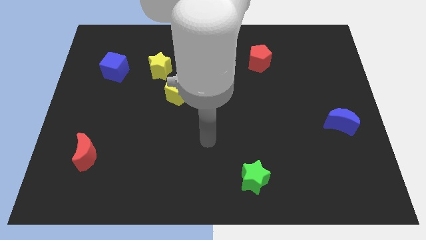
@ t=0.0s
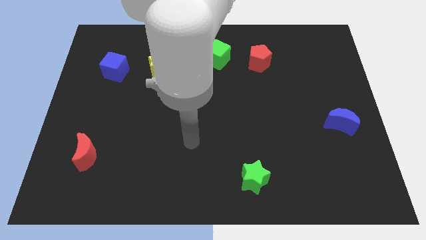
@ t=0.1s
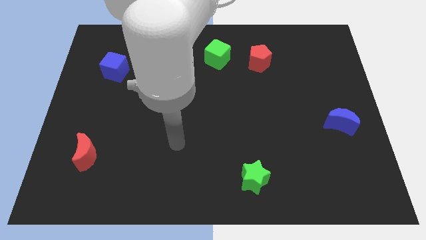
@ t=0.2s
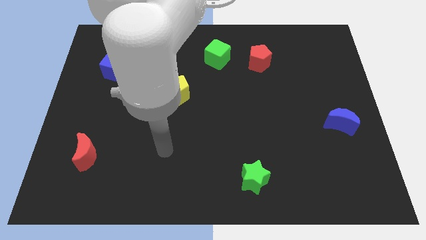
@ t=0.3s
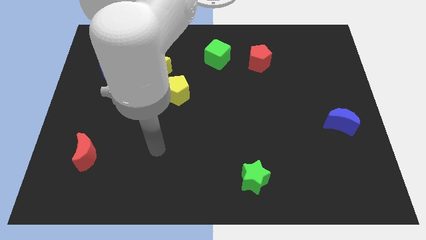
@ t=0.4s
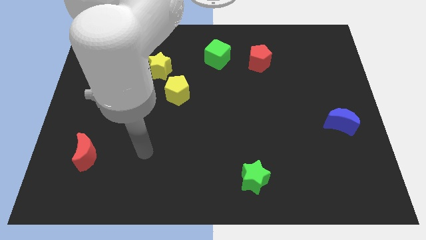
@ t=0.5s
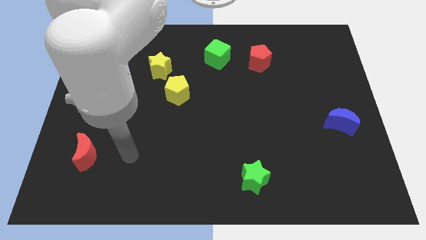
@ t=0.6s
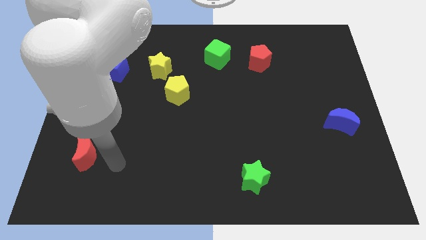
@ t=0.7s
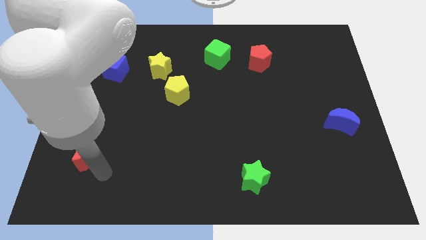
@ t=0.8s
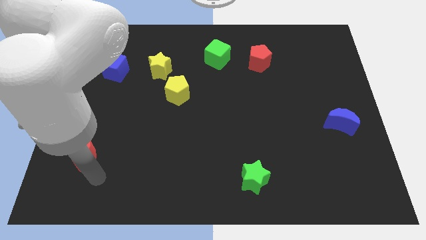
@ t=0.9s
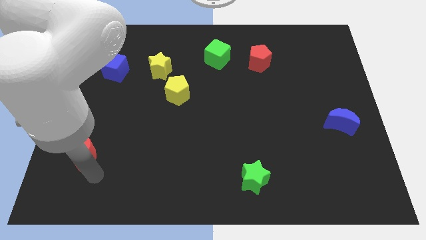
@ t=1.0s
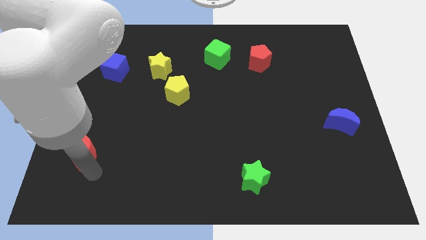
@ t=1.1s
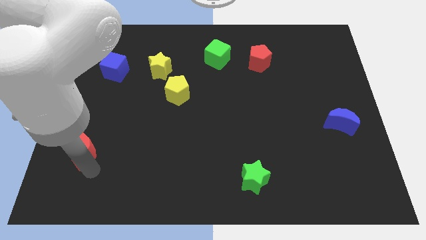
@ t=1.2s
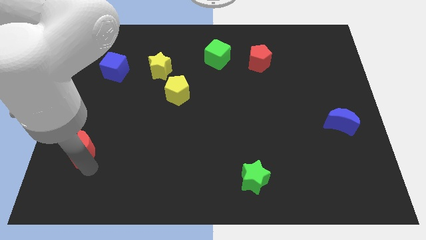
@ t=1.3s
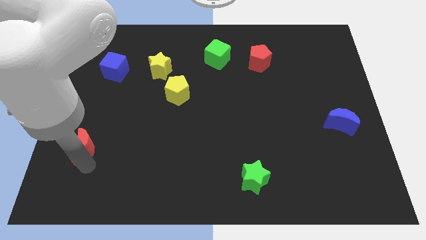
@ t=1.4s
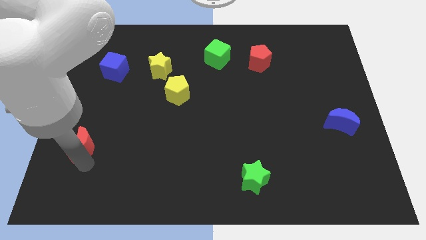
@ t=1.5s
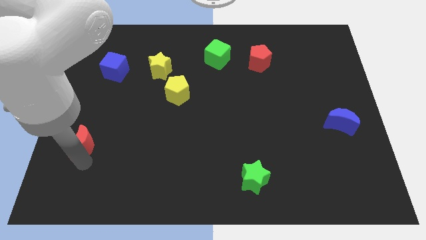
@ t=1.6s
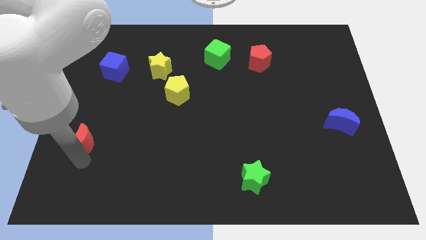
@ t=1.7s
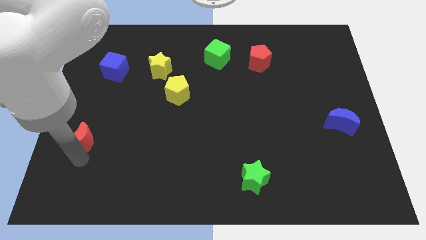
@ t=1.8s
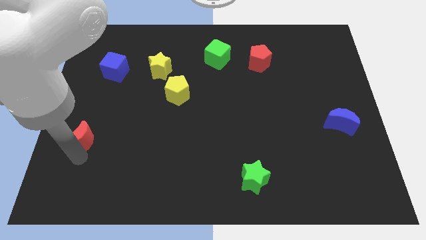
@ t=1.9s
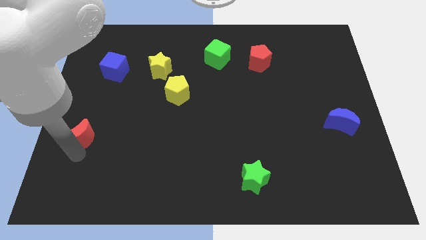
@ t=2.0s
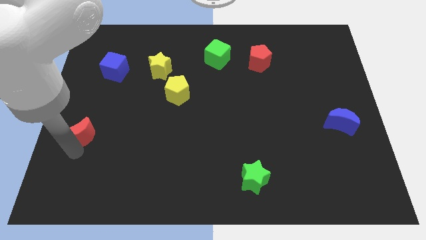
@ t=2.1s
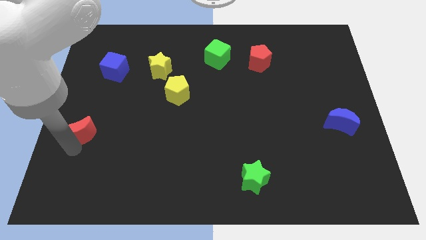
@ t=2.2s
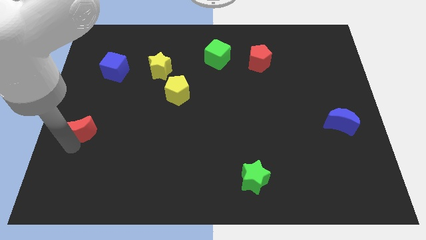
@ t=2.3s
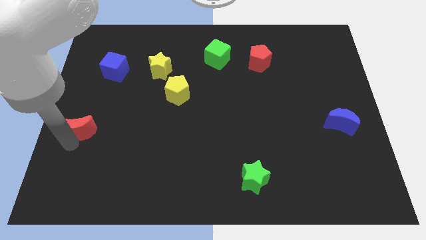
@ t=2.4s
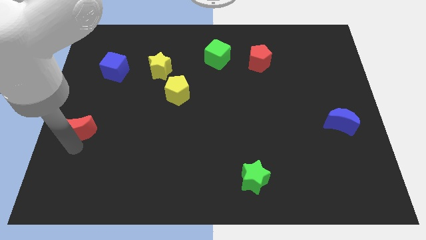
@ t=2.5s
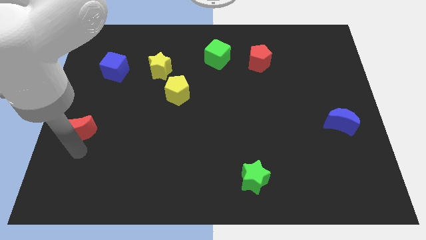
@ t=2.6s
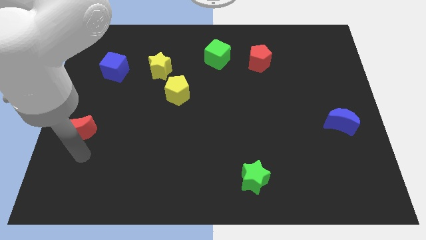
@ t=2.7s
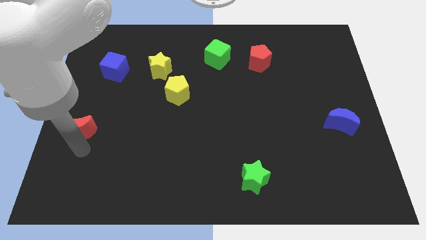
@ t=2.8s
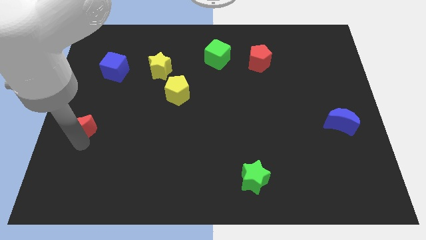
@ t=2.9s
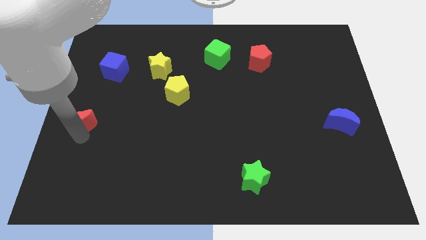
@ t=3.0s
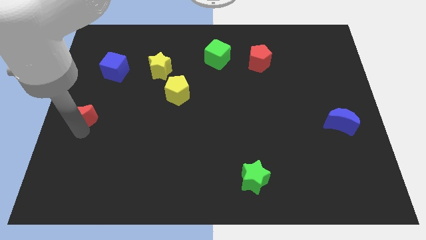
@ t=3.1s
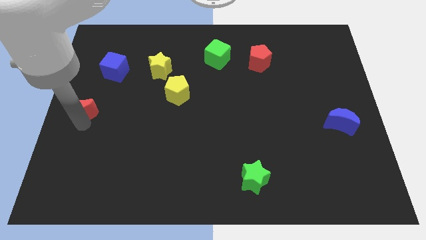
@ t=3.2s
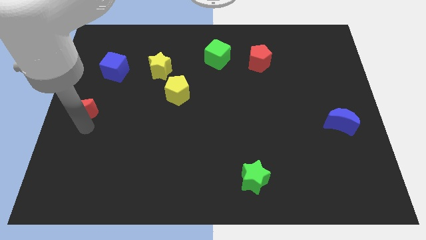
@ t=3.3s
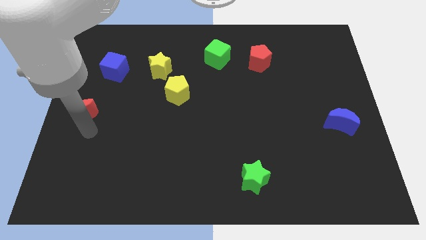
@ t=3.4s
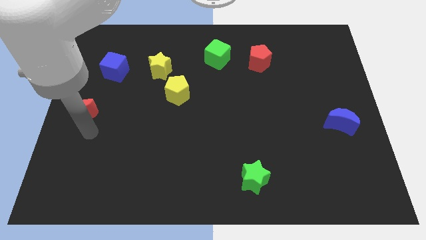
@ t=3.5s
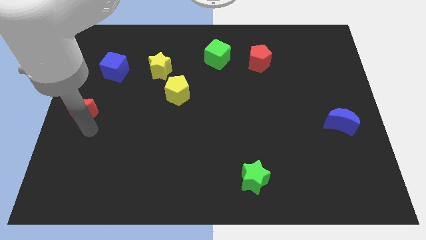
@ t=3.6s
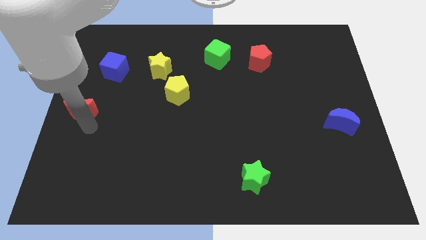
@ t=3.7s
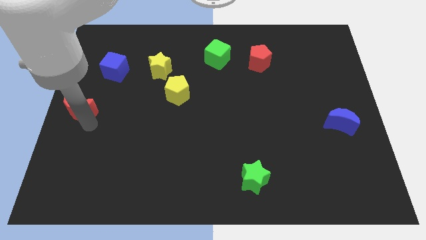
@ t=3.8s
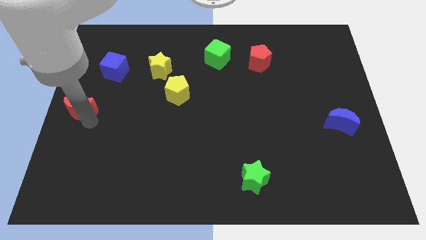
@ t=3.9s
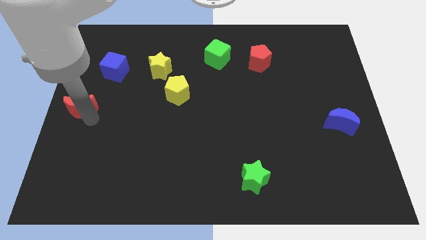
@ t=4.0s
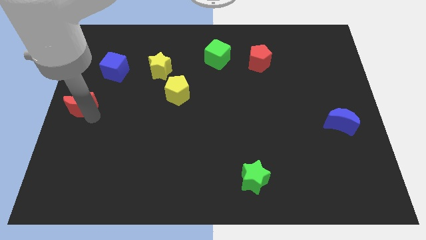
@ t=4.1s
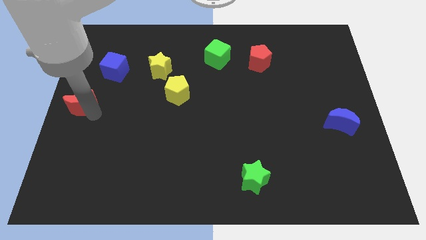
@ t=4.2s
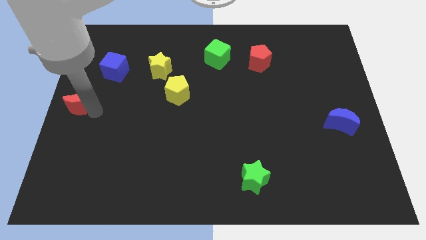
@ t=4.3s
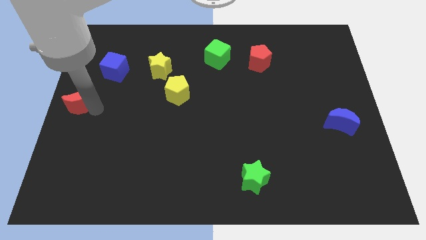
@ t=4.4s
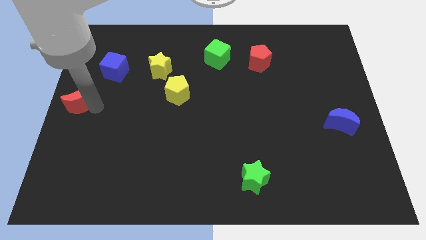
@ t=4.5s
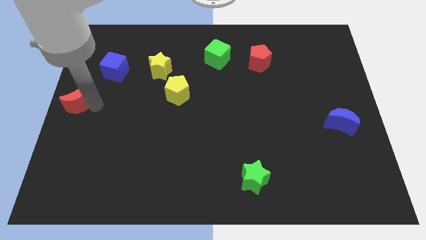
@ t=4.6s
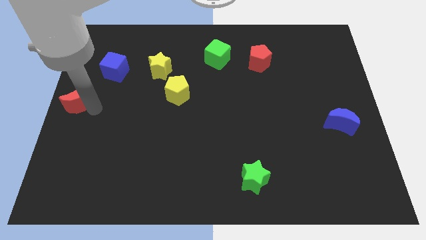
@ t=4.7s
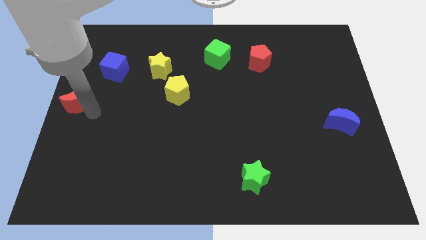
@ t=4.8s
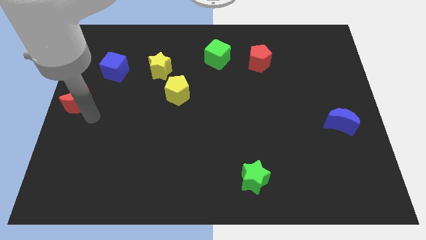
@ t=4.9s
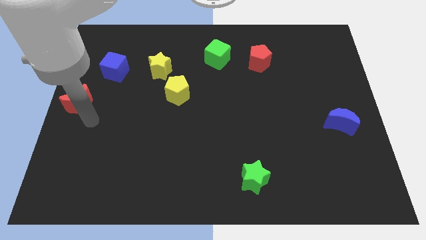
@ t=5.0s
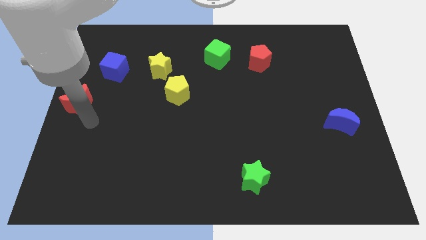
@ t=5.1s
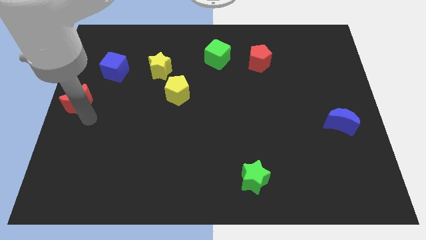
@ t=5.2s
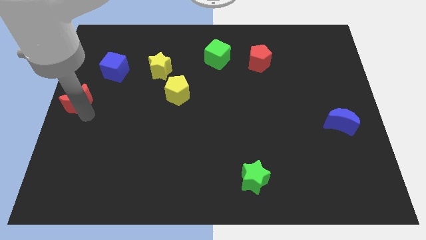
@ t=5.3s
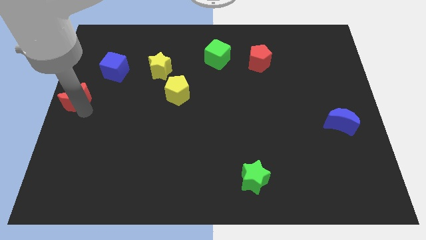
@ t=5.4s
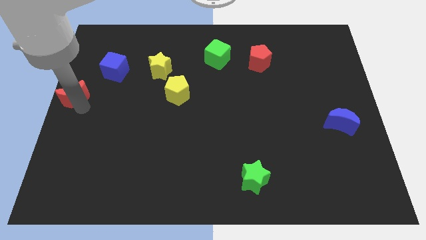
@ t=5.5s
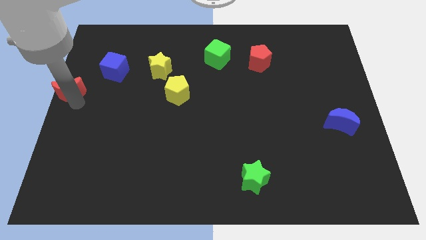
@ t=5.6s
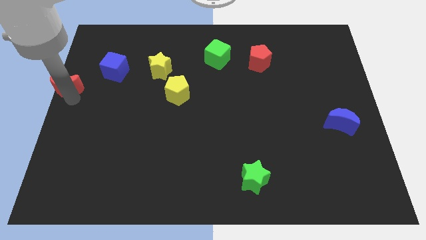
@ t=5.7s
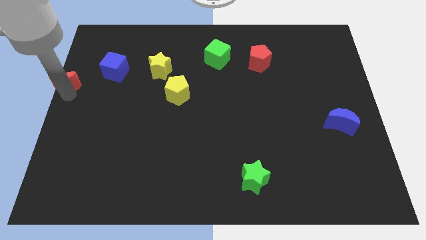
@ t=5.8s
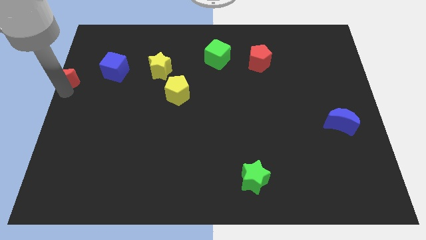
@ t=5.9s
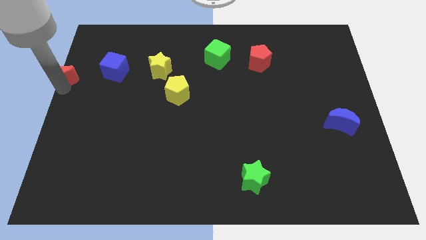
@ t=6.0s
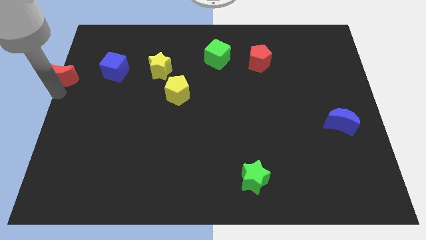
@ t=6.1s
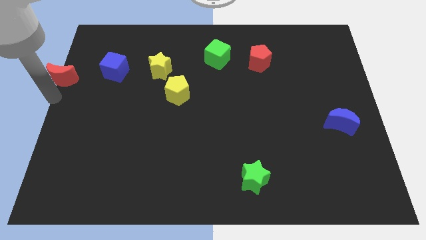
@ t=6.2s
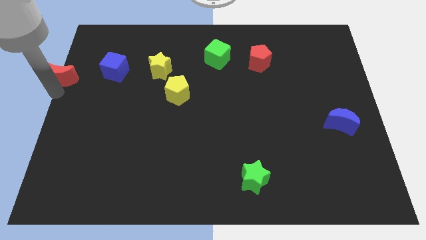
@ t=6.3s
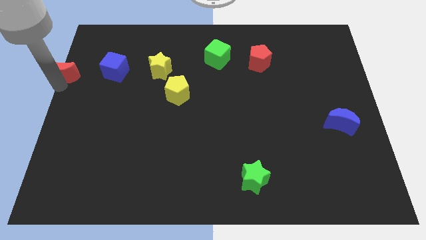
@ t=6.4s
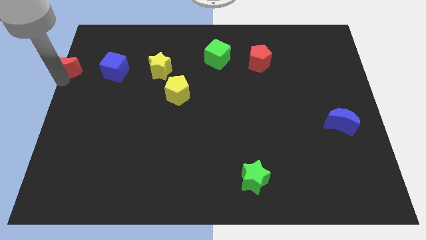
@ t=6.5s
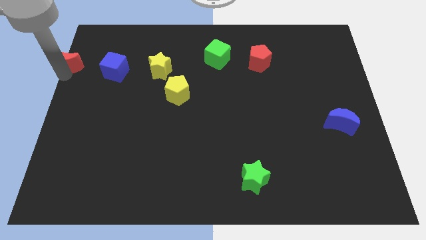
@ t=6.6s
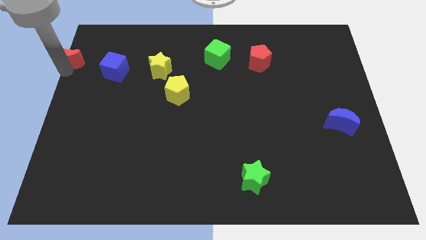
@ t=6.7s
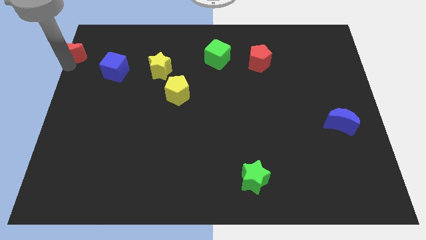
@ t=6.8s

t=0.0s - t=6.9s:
push the red moon to the upper left corner
